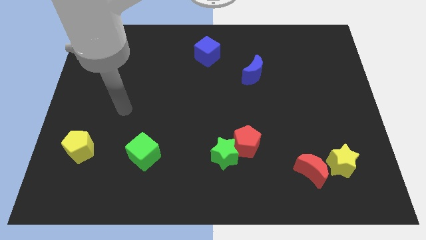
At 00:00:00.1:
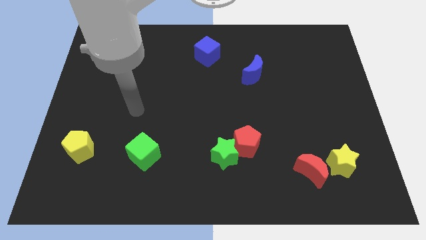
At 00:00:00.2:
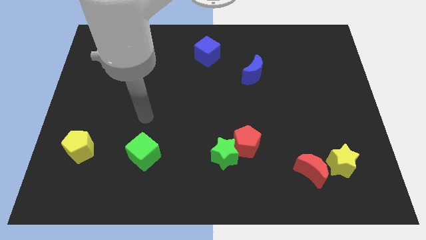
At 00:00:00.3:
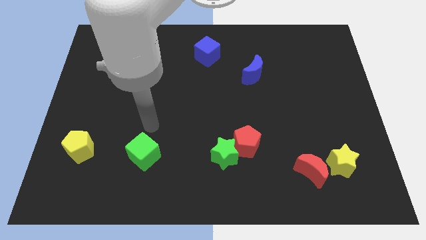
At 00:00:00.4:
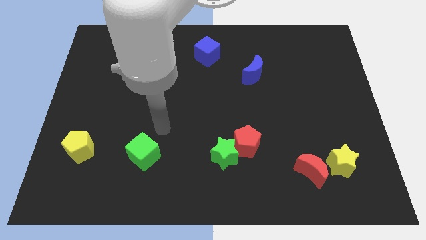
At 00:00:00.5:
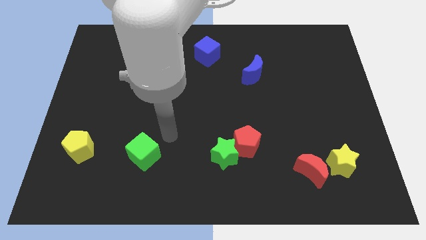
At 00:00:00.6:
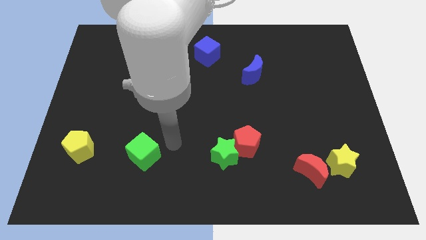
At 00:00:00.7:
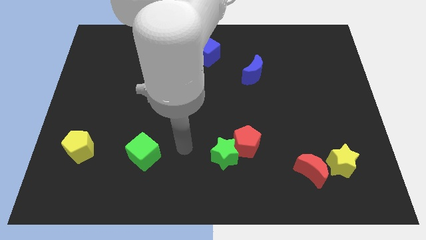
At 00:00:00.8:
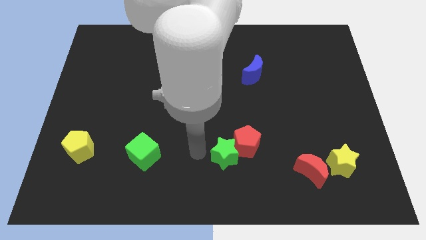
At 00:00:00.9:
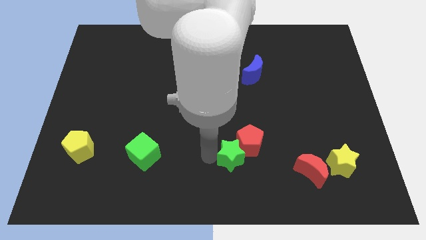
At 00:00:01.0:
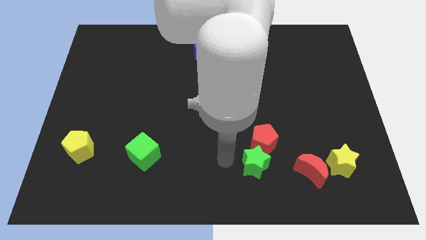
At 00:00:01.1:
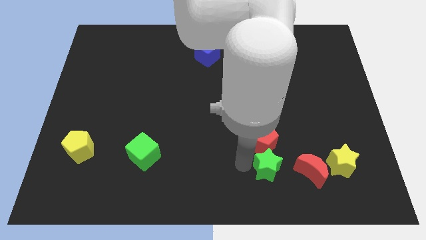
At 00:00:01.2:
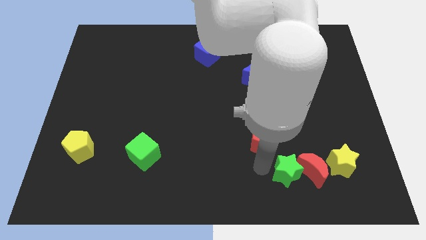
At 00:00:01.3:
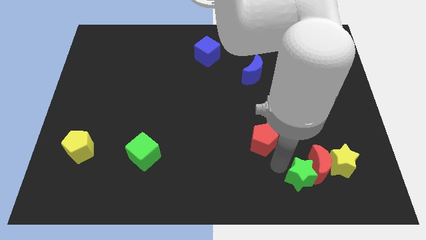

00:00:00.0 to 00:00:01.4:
pull the red pentagon apart from the green star

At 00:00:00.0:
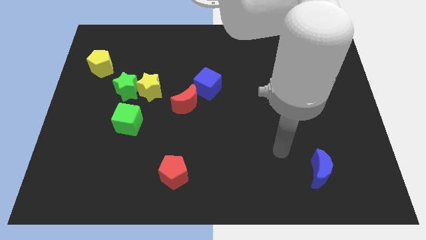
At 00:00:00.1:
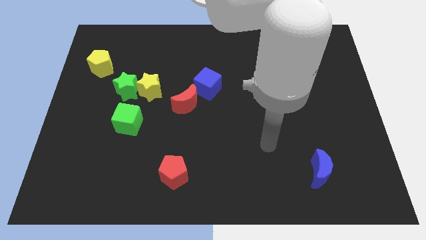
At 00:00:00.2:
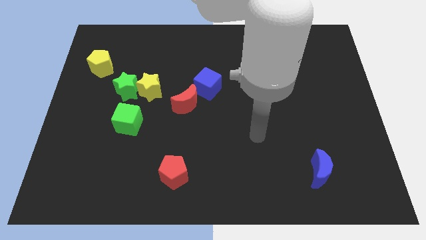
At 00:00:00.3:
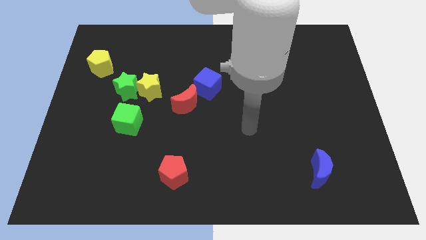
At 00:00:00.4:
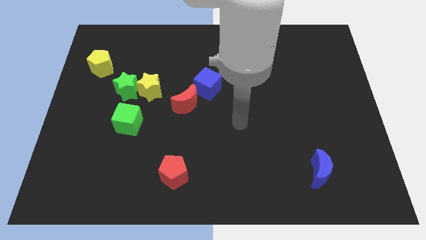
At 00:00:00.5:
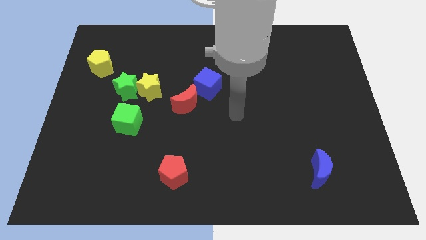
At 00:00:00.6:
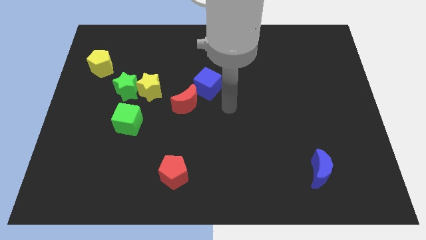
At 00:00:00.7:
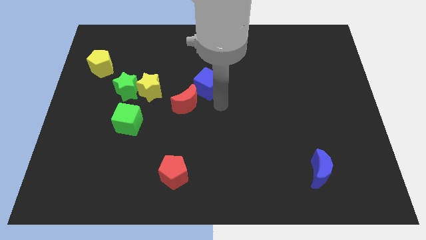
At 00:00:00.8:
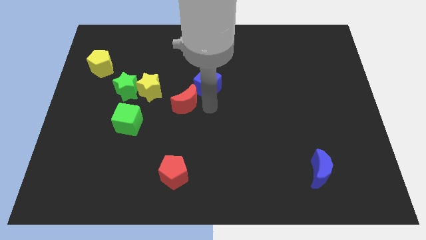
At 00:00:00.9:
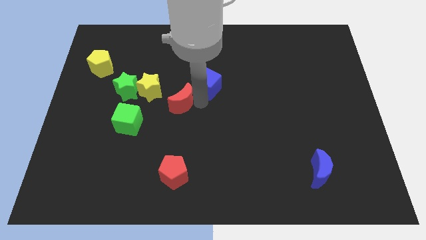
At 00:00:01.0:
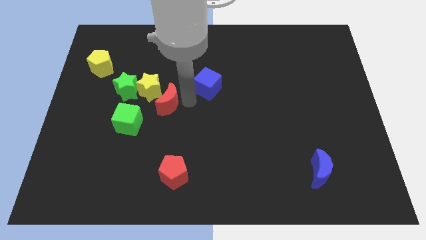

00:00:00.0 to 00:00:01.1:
move the blue cube away from the red moon

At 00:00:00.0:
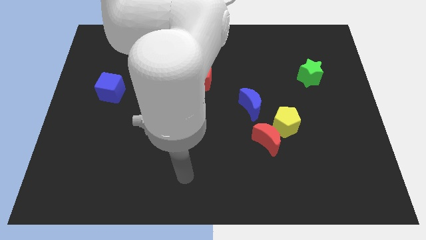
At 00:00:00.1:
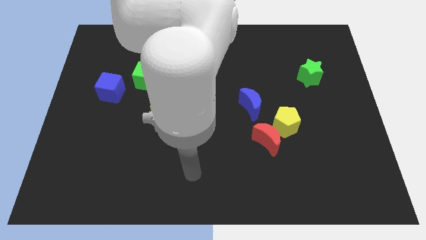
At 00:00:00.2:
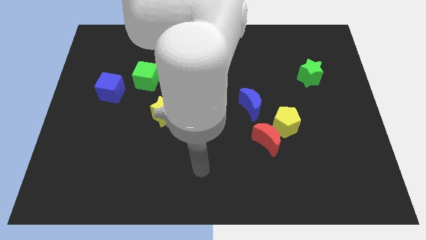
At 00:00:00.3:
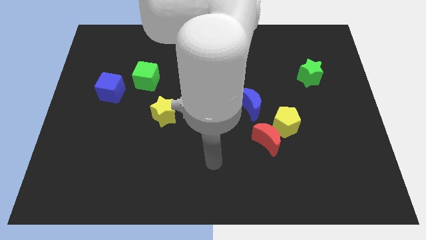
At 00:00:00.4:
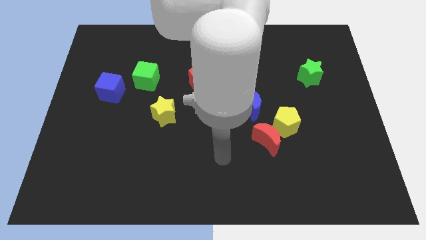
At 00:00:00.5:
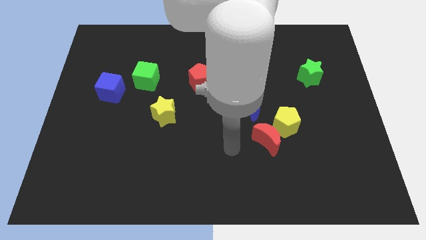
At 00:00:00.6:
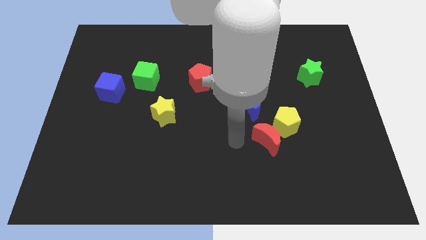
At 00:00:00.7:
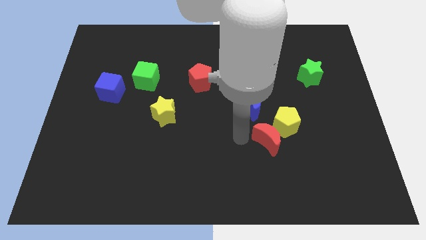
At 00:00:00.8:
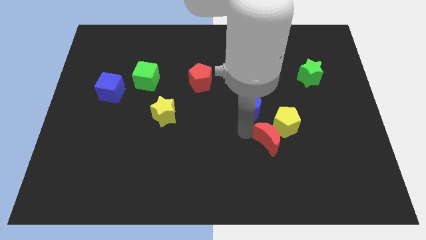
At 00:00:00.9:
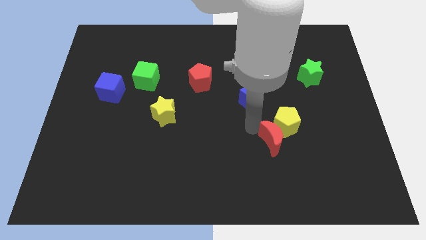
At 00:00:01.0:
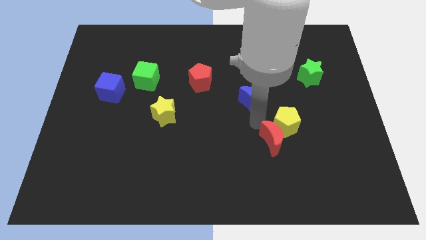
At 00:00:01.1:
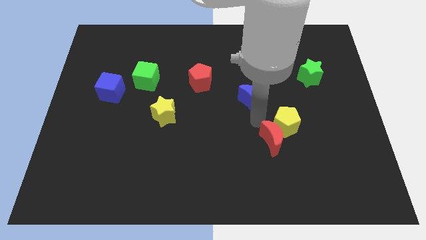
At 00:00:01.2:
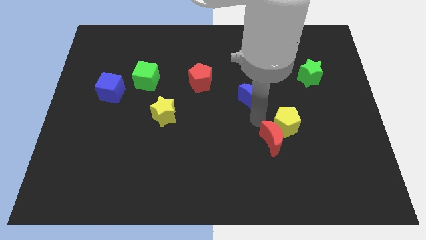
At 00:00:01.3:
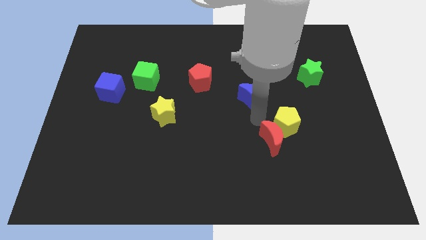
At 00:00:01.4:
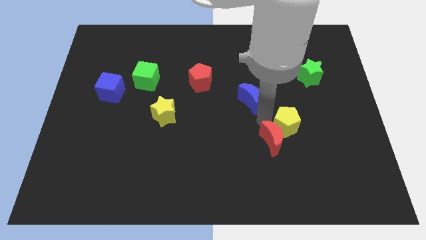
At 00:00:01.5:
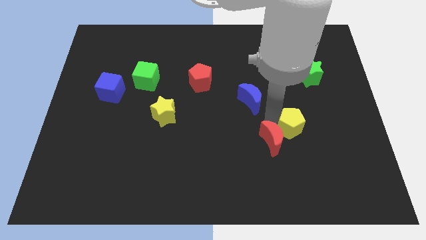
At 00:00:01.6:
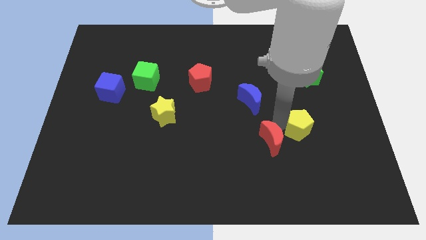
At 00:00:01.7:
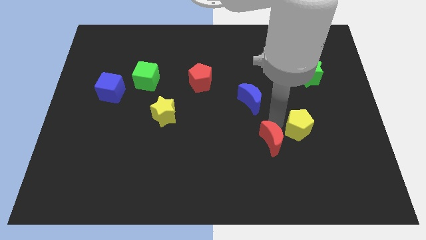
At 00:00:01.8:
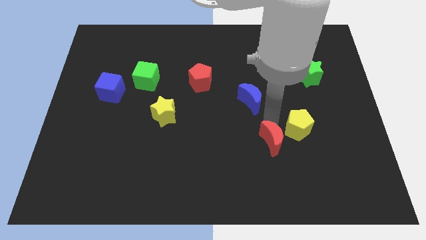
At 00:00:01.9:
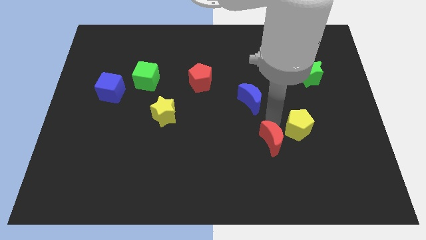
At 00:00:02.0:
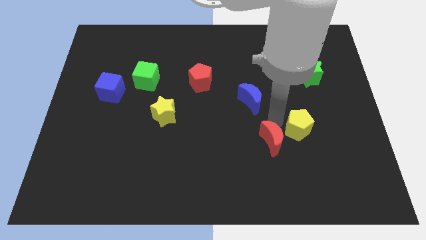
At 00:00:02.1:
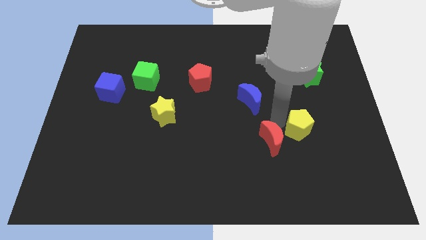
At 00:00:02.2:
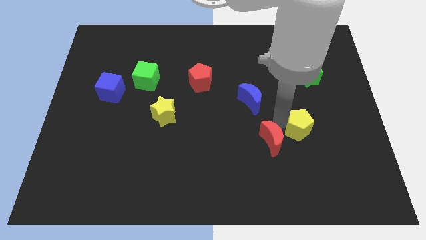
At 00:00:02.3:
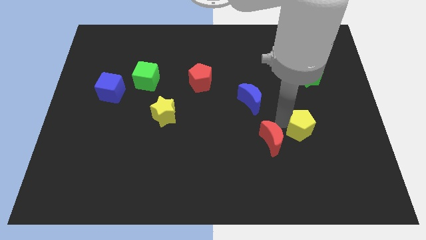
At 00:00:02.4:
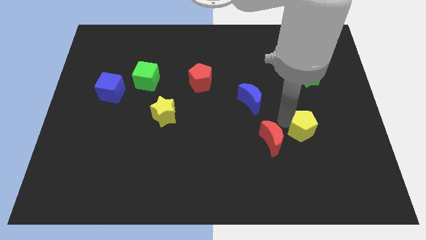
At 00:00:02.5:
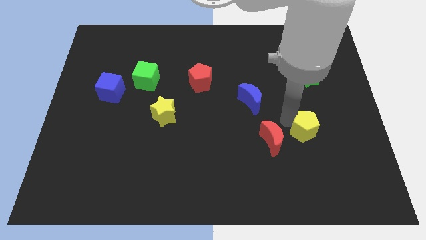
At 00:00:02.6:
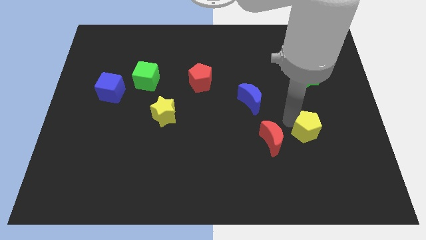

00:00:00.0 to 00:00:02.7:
separate the yellow pentagon from the red moon and blue moon

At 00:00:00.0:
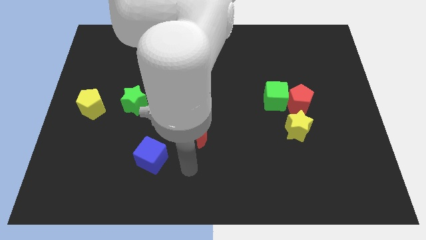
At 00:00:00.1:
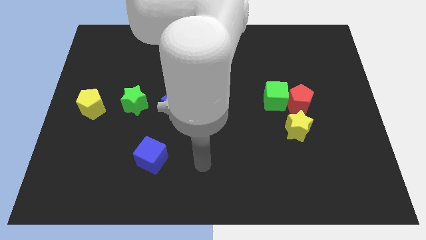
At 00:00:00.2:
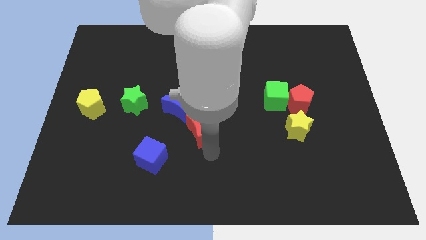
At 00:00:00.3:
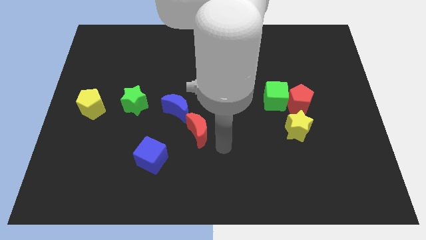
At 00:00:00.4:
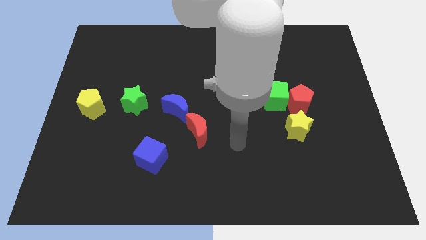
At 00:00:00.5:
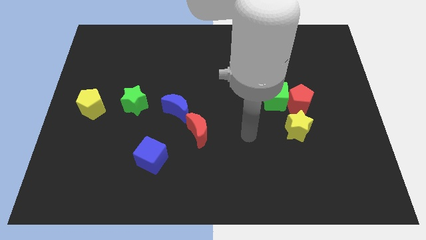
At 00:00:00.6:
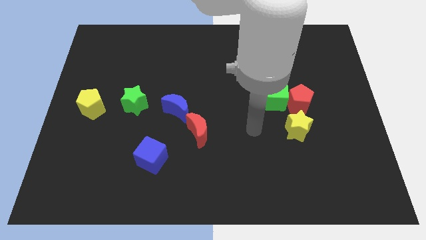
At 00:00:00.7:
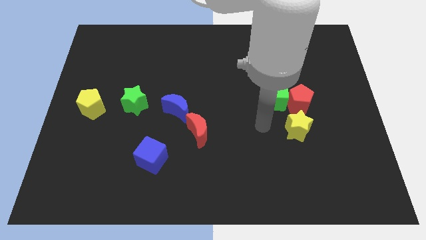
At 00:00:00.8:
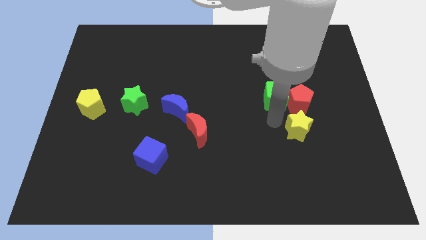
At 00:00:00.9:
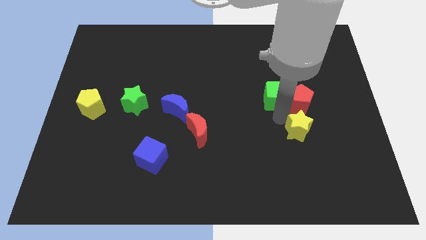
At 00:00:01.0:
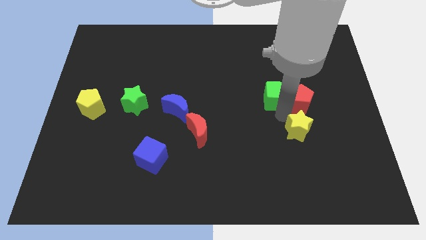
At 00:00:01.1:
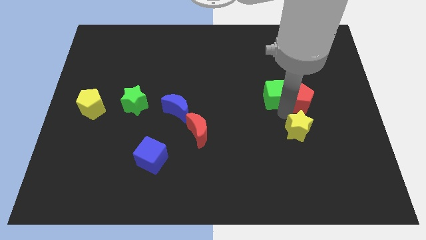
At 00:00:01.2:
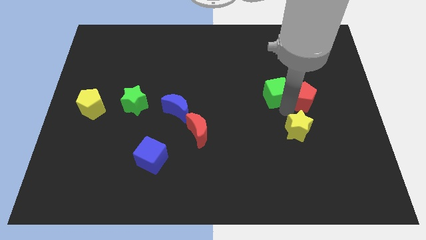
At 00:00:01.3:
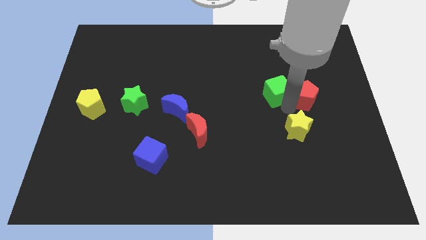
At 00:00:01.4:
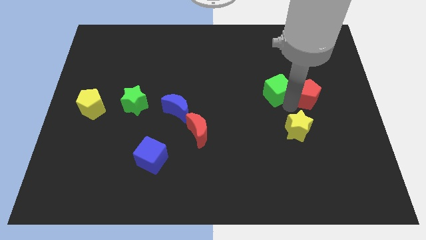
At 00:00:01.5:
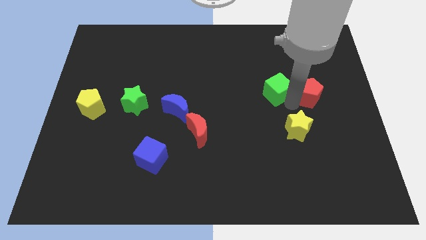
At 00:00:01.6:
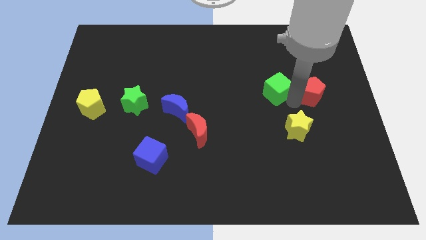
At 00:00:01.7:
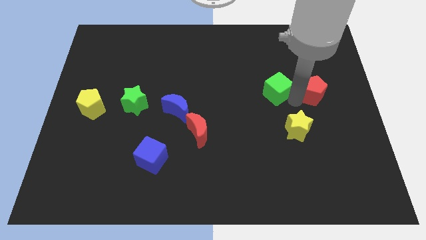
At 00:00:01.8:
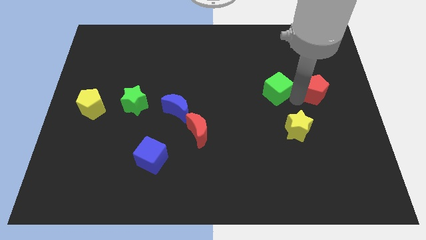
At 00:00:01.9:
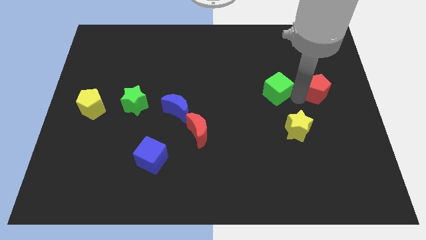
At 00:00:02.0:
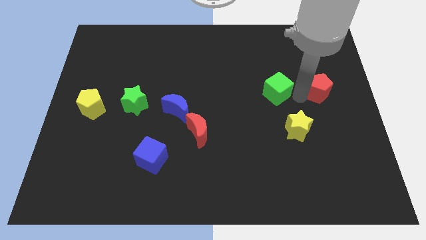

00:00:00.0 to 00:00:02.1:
move the red pentagon away from the green cube and yellow star

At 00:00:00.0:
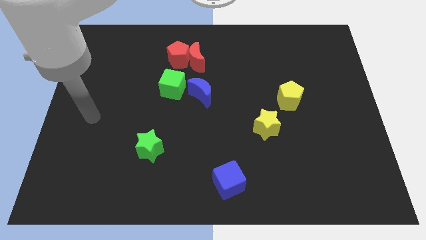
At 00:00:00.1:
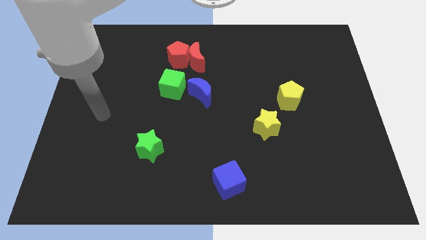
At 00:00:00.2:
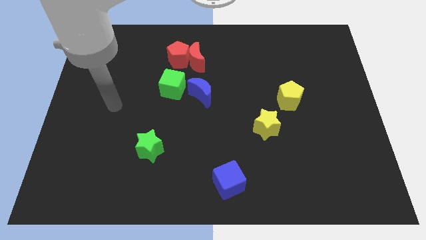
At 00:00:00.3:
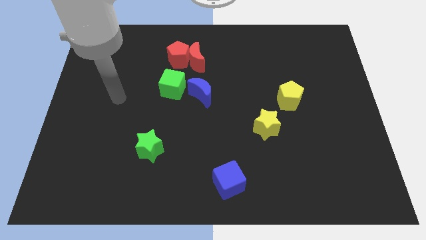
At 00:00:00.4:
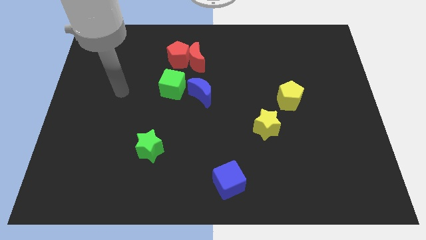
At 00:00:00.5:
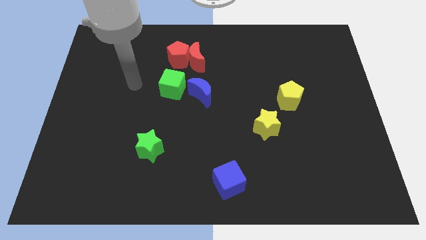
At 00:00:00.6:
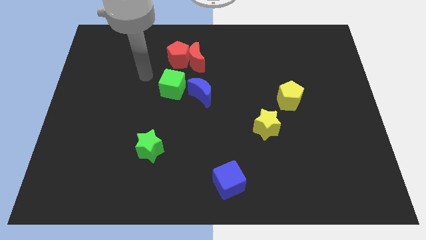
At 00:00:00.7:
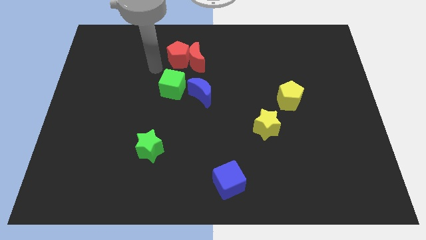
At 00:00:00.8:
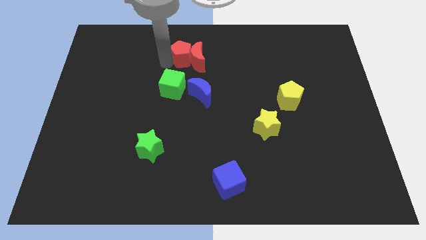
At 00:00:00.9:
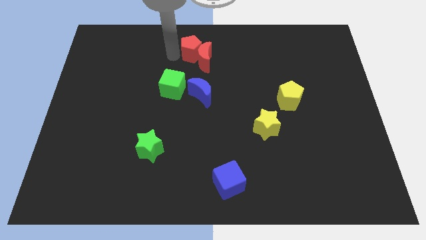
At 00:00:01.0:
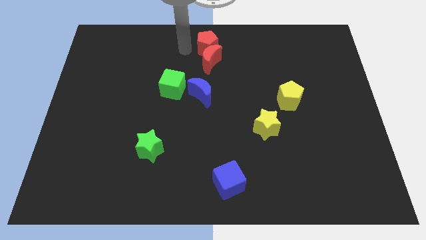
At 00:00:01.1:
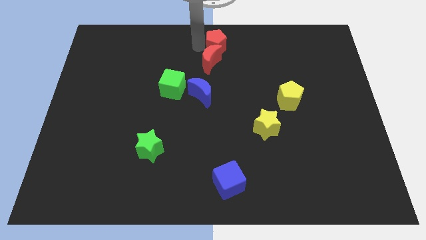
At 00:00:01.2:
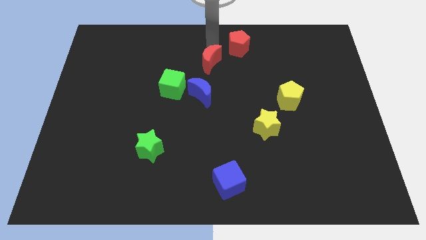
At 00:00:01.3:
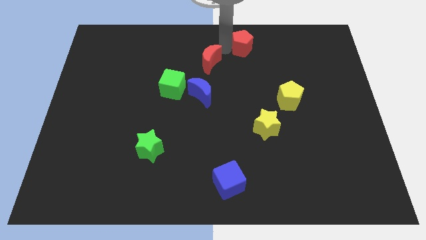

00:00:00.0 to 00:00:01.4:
separate the red moon from the red pentagon

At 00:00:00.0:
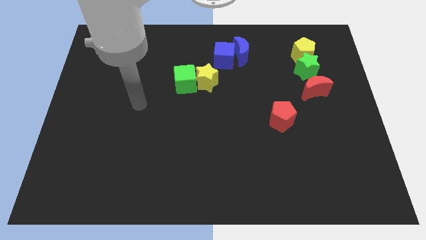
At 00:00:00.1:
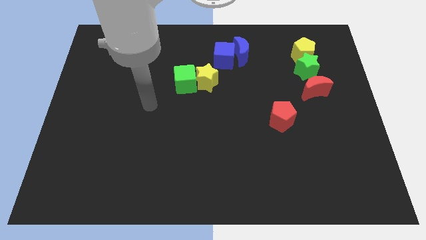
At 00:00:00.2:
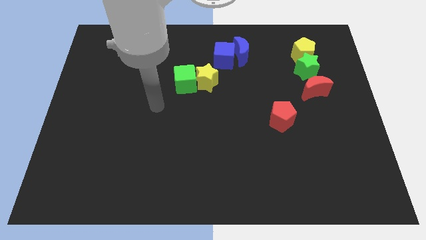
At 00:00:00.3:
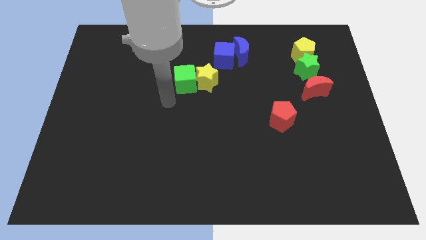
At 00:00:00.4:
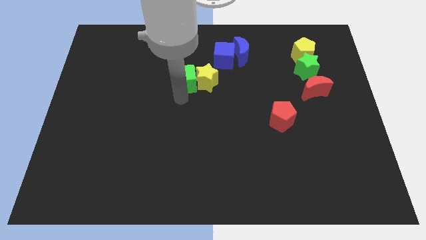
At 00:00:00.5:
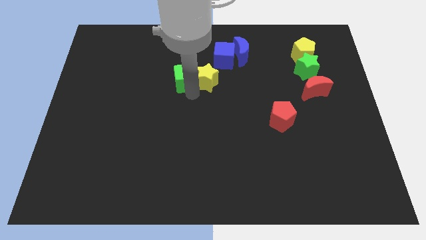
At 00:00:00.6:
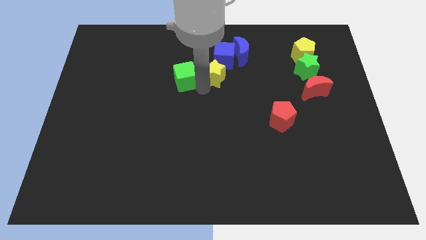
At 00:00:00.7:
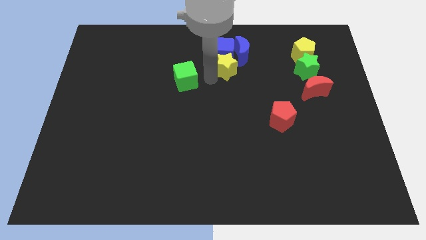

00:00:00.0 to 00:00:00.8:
separate the green cube from the yellow star
